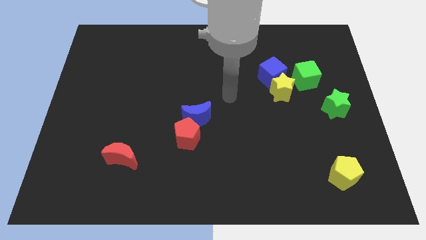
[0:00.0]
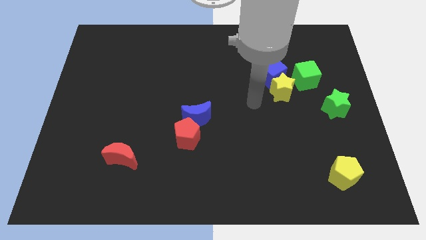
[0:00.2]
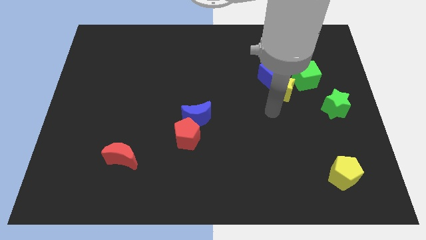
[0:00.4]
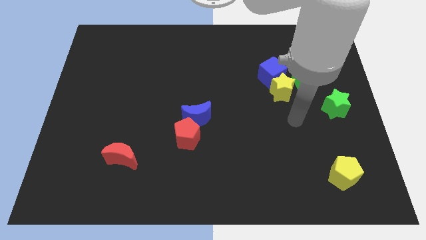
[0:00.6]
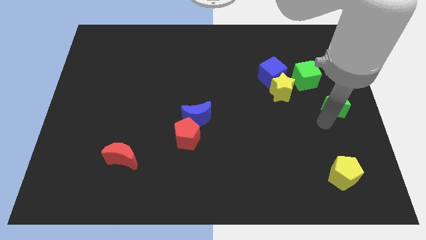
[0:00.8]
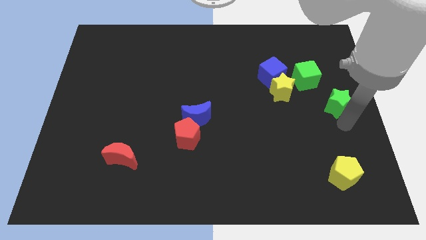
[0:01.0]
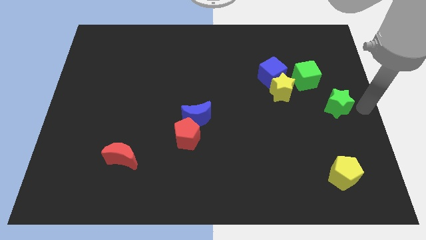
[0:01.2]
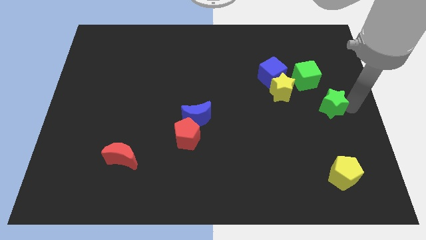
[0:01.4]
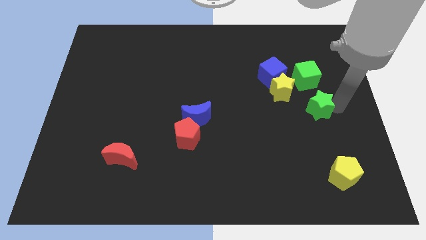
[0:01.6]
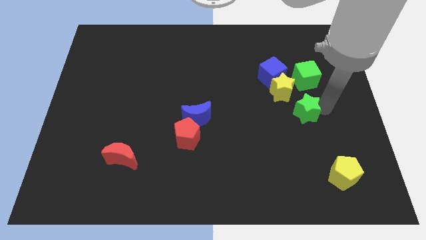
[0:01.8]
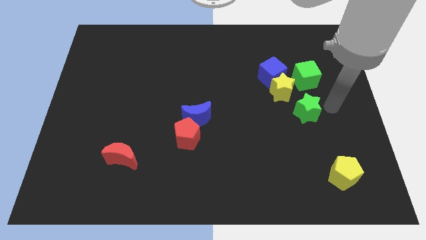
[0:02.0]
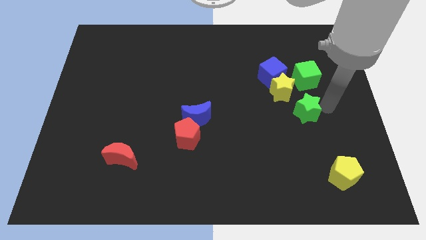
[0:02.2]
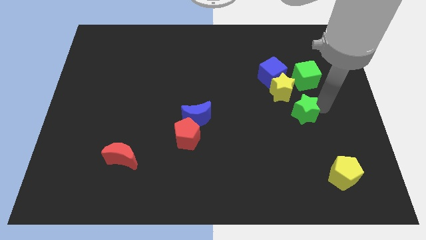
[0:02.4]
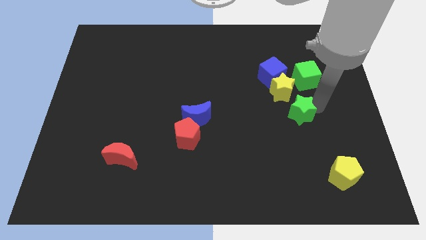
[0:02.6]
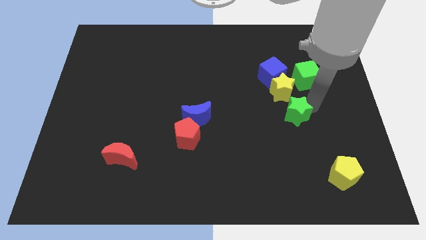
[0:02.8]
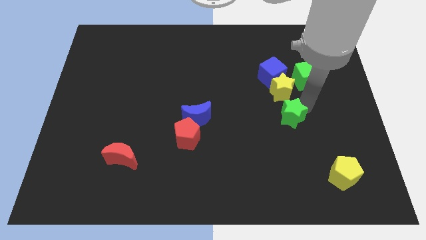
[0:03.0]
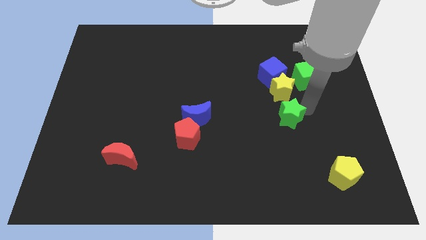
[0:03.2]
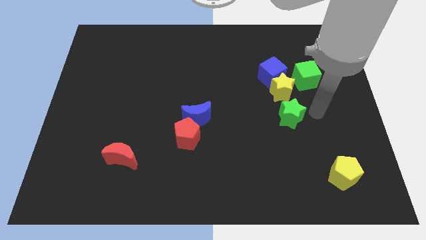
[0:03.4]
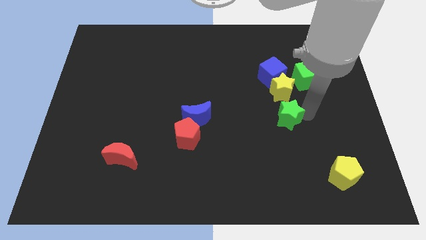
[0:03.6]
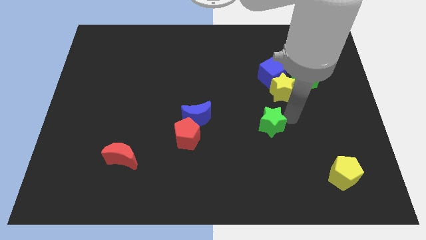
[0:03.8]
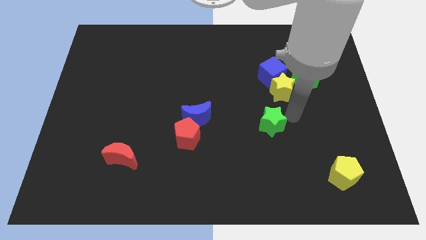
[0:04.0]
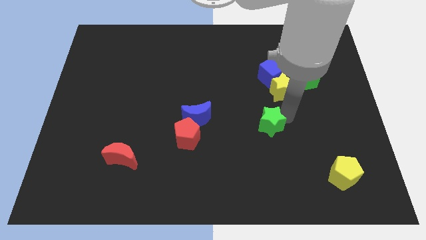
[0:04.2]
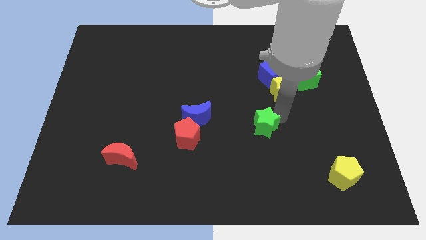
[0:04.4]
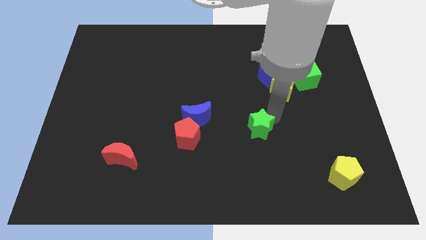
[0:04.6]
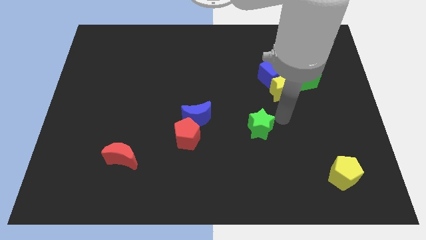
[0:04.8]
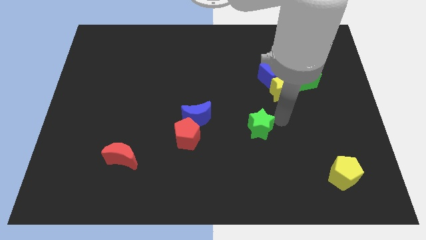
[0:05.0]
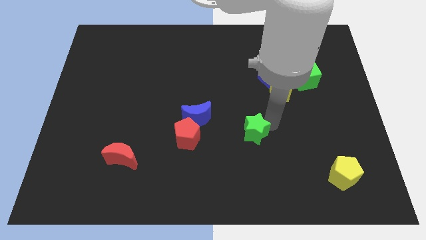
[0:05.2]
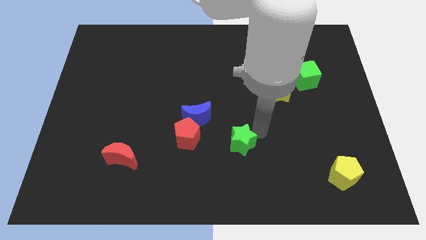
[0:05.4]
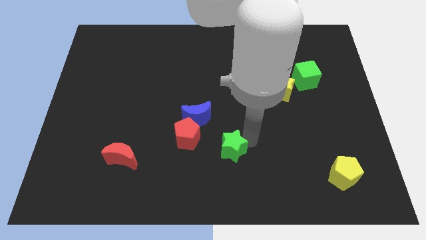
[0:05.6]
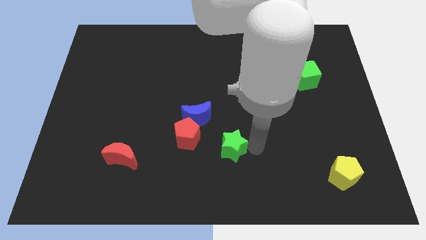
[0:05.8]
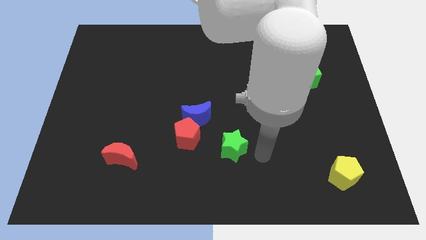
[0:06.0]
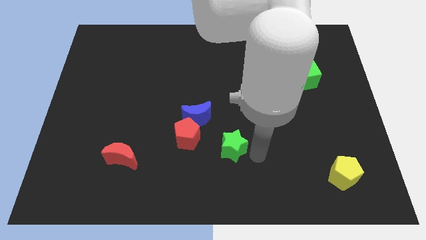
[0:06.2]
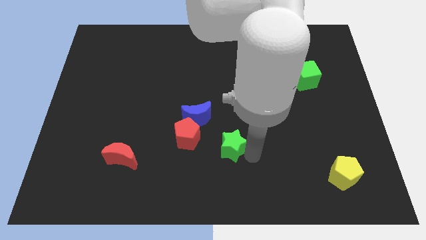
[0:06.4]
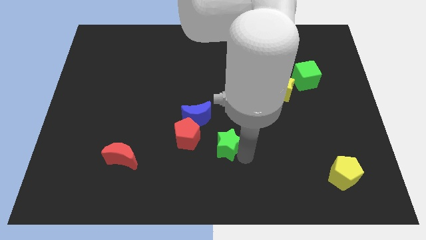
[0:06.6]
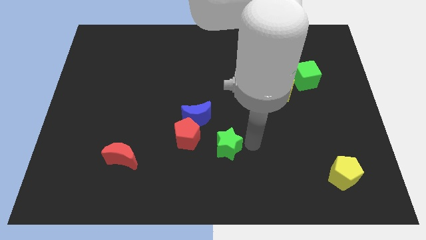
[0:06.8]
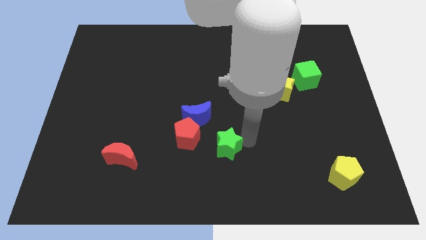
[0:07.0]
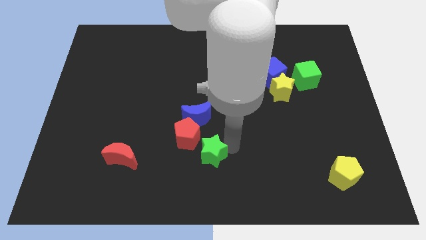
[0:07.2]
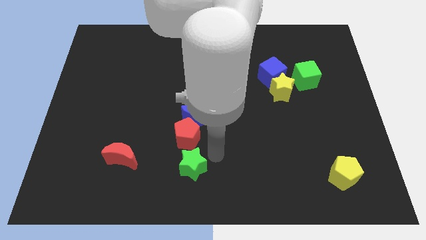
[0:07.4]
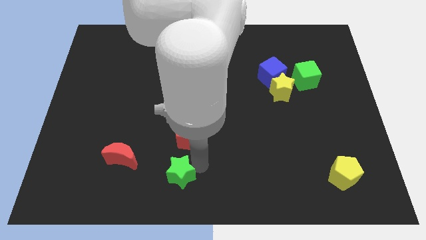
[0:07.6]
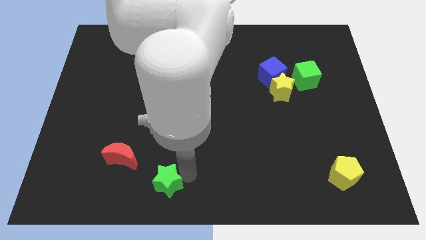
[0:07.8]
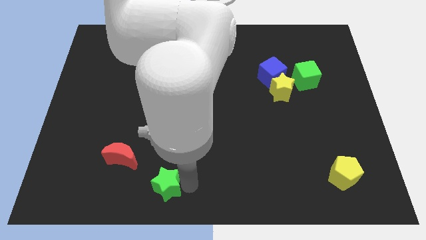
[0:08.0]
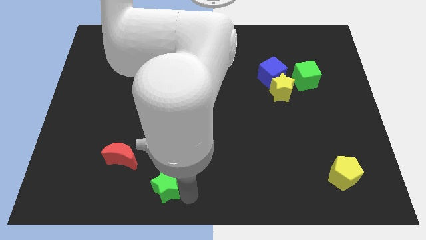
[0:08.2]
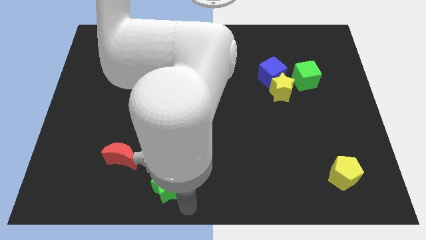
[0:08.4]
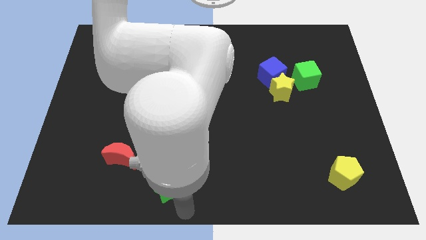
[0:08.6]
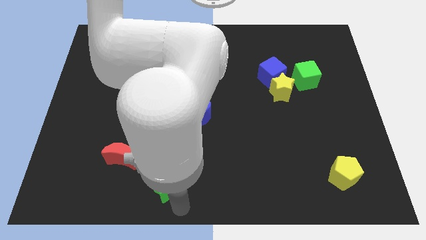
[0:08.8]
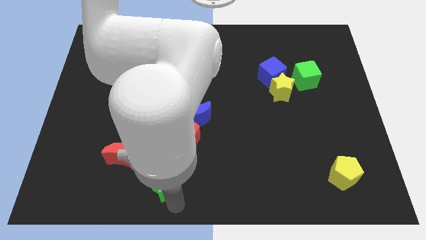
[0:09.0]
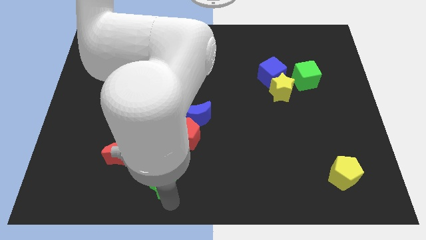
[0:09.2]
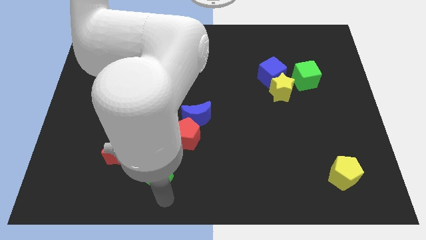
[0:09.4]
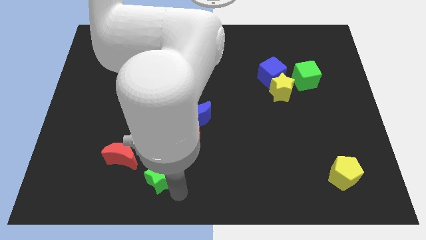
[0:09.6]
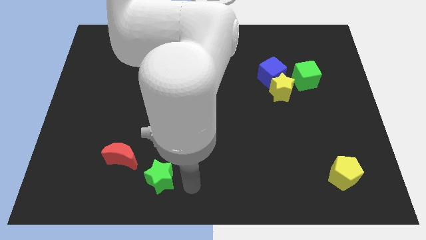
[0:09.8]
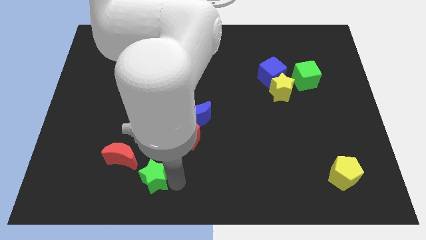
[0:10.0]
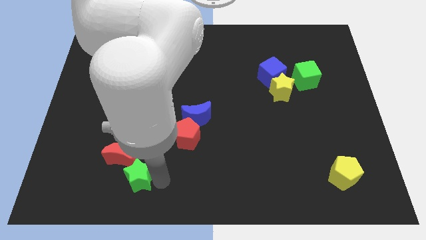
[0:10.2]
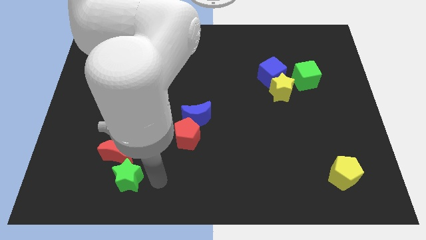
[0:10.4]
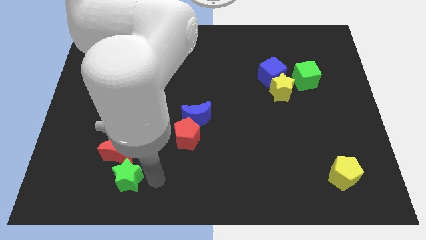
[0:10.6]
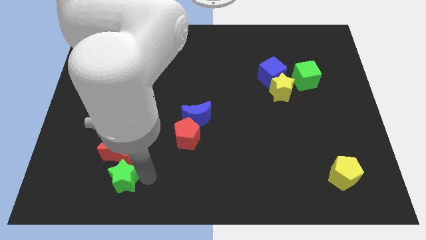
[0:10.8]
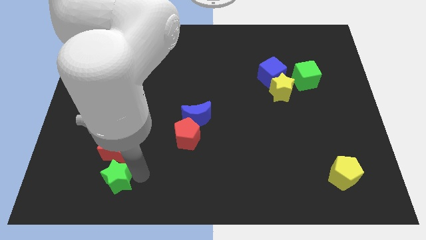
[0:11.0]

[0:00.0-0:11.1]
move the green star to the bottom left side of the red moon

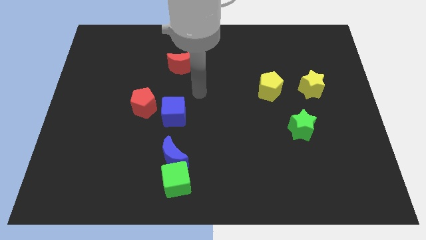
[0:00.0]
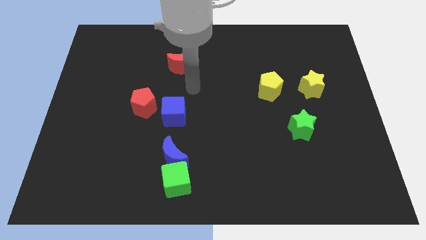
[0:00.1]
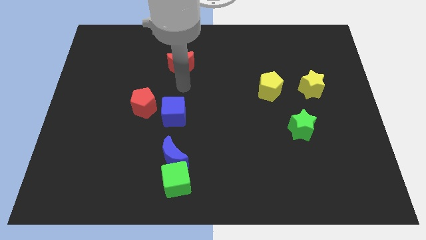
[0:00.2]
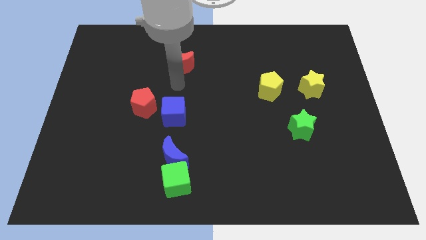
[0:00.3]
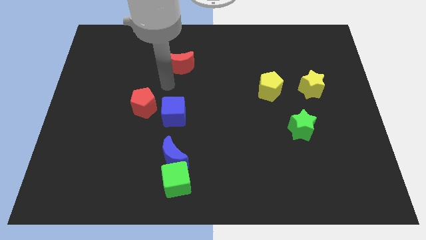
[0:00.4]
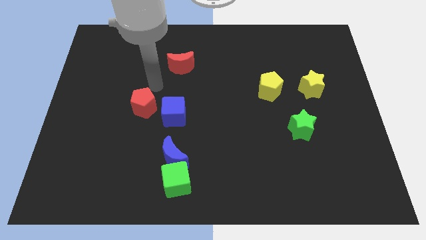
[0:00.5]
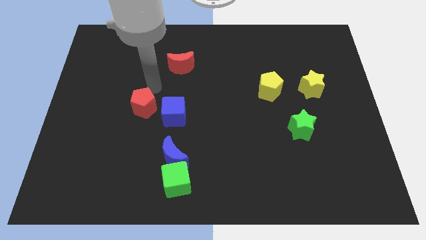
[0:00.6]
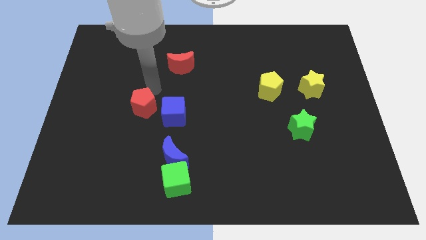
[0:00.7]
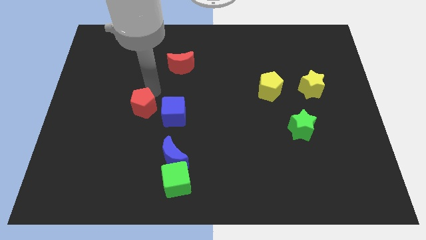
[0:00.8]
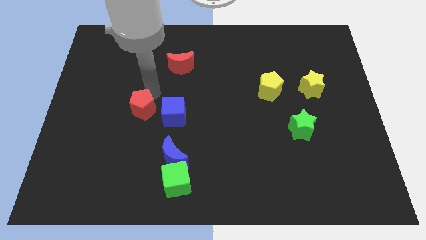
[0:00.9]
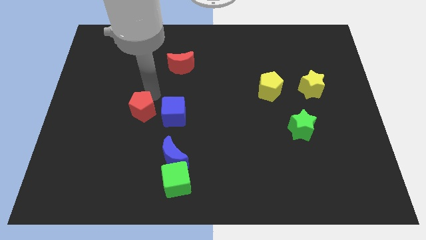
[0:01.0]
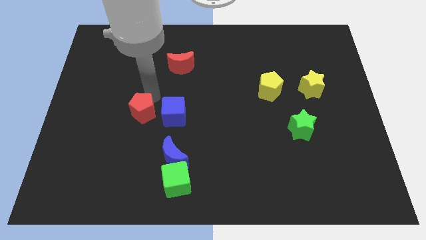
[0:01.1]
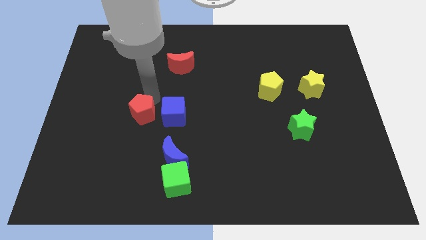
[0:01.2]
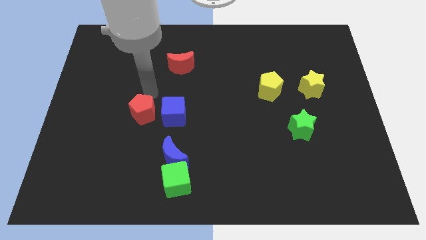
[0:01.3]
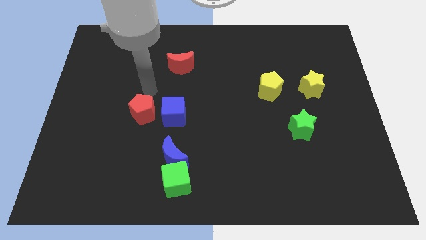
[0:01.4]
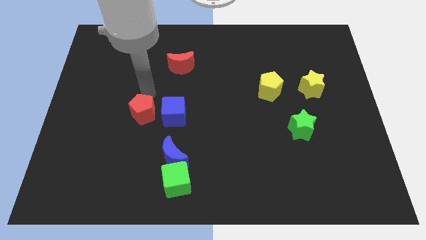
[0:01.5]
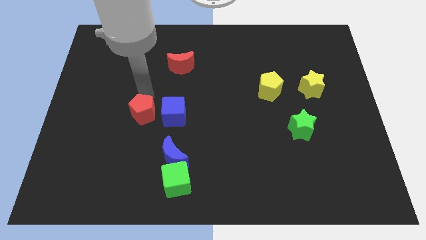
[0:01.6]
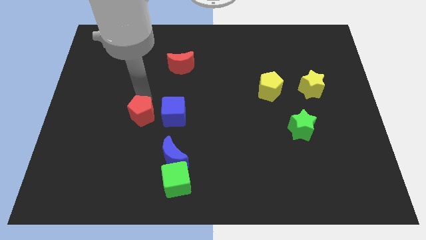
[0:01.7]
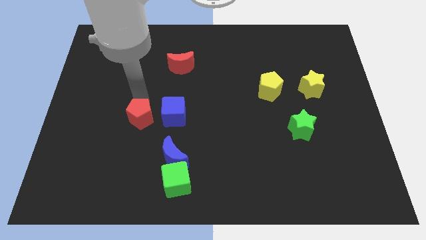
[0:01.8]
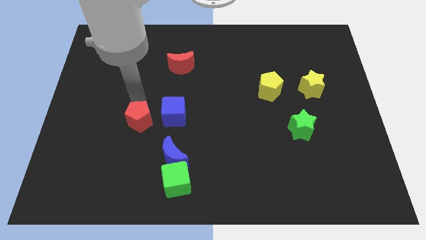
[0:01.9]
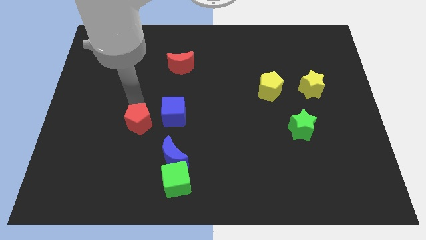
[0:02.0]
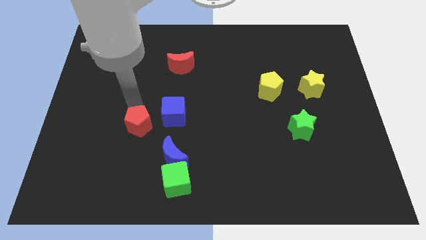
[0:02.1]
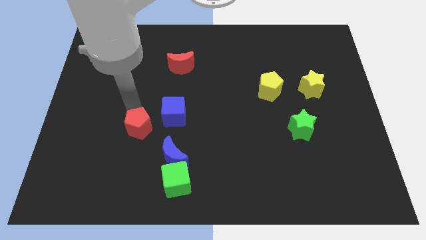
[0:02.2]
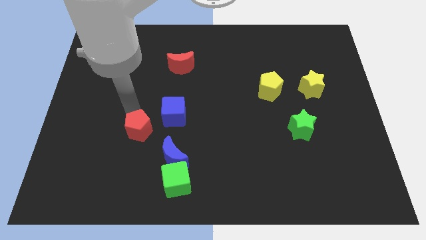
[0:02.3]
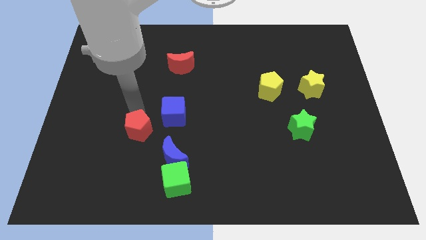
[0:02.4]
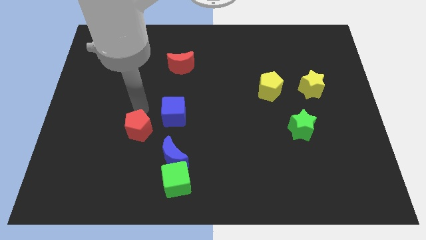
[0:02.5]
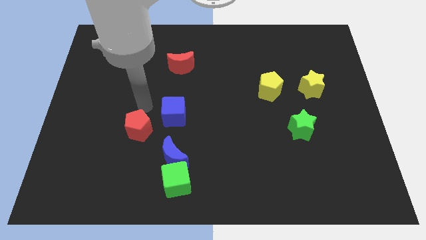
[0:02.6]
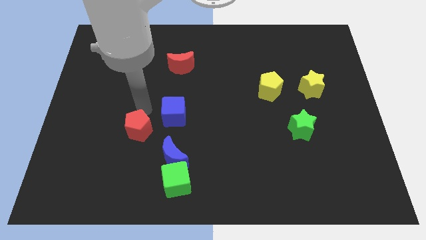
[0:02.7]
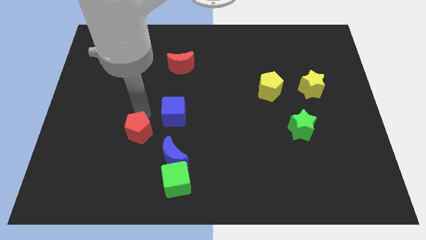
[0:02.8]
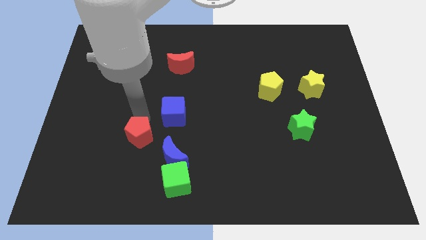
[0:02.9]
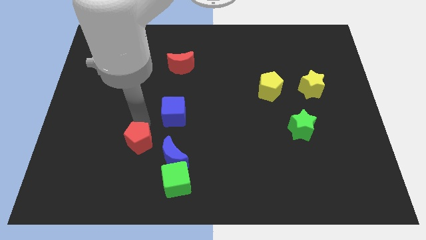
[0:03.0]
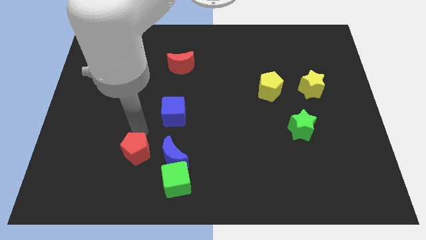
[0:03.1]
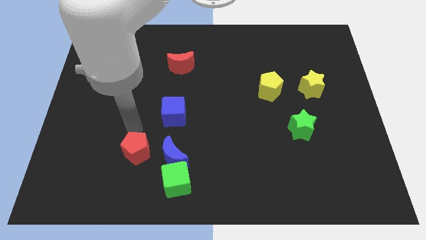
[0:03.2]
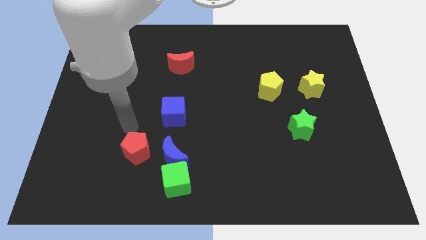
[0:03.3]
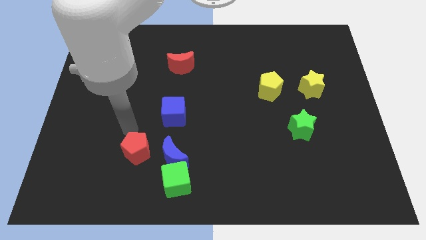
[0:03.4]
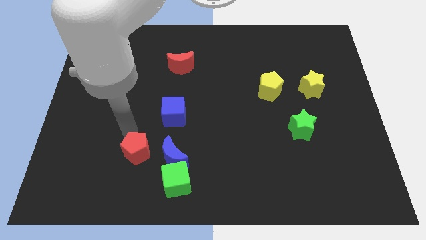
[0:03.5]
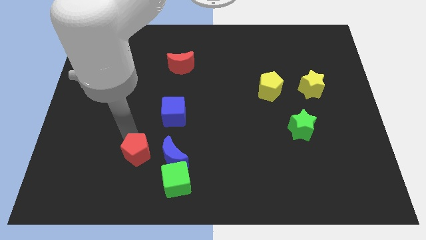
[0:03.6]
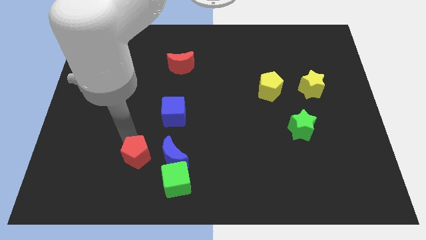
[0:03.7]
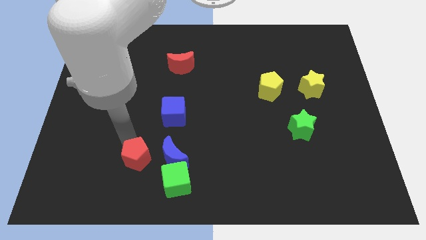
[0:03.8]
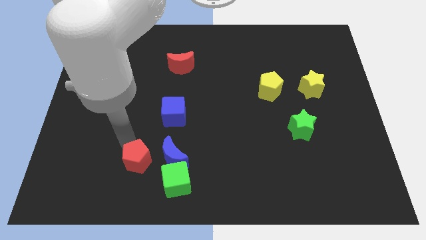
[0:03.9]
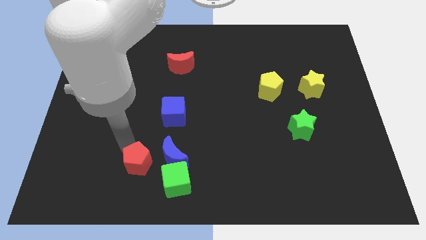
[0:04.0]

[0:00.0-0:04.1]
push the red pentagon to the bottom left side of the blue moon
